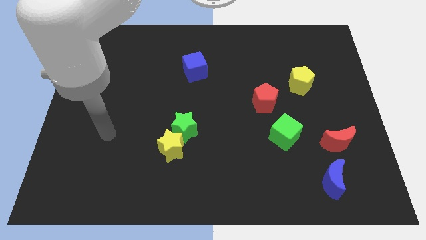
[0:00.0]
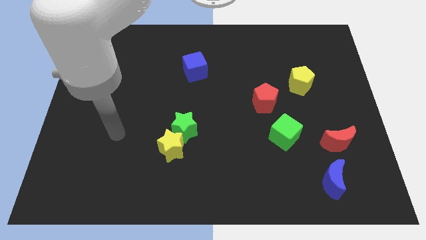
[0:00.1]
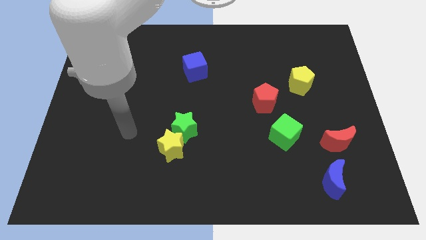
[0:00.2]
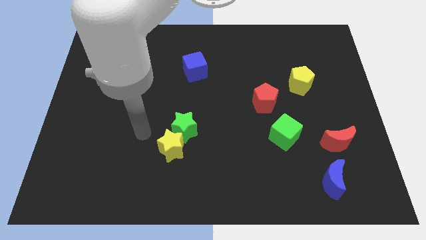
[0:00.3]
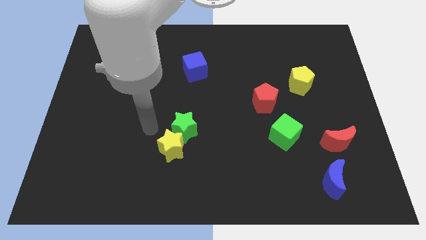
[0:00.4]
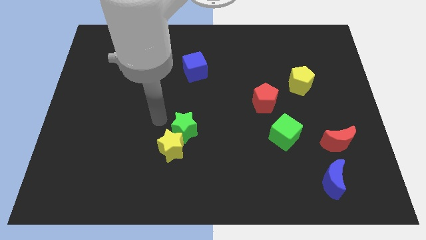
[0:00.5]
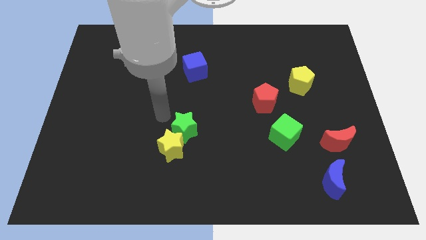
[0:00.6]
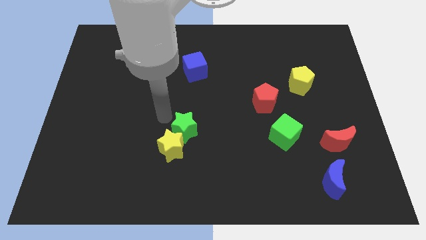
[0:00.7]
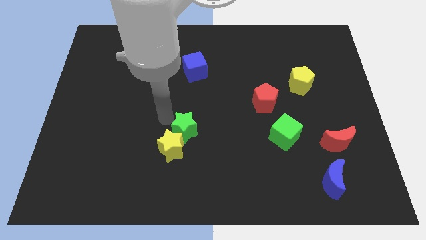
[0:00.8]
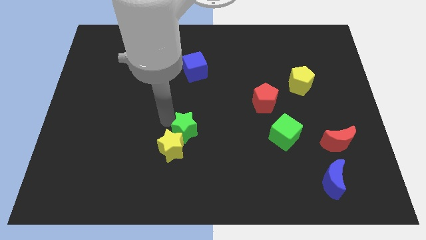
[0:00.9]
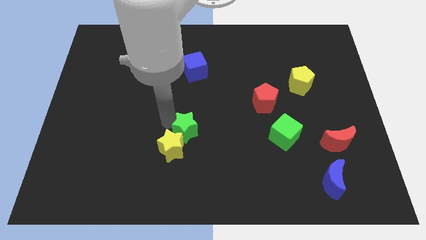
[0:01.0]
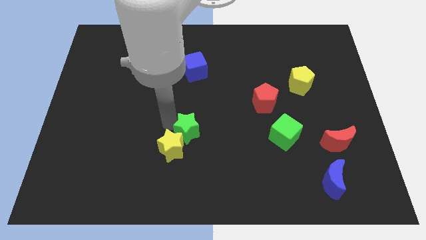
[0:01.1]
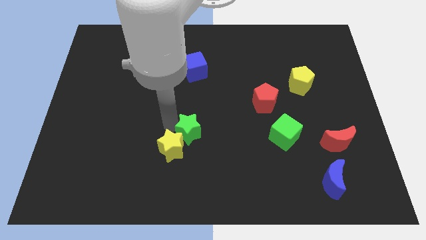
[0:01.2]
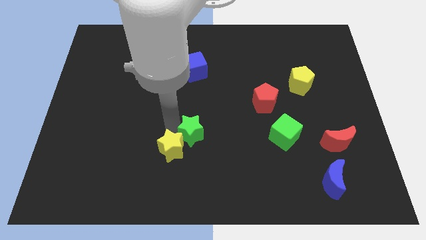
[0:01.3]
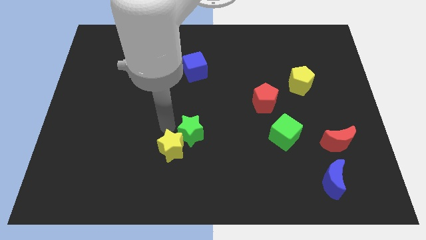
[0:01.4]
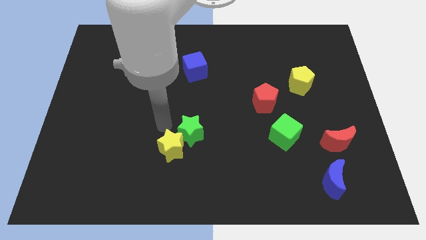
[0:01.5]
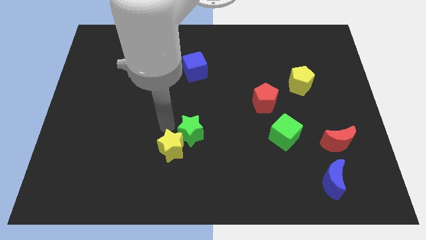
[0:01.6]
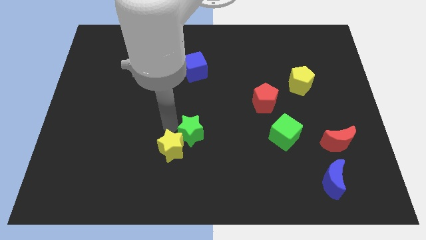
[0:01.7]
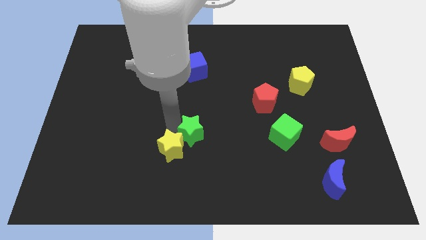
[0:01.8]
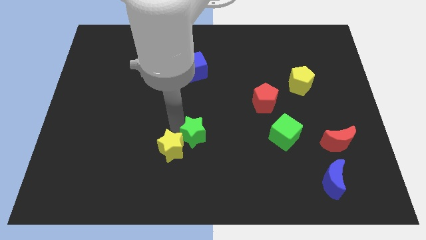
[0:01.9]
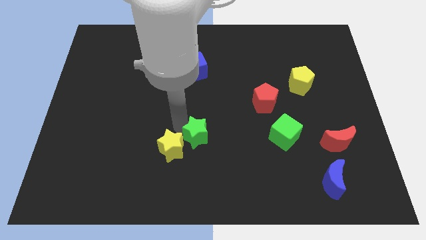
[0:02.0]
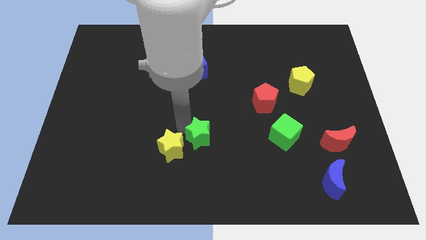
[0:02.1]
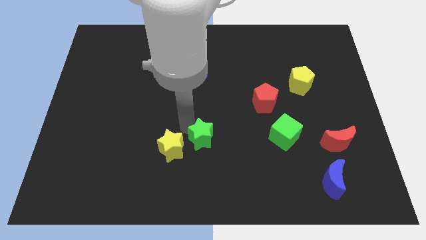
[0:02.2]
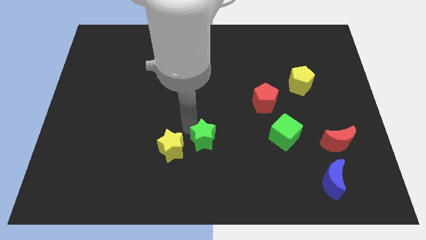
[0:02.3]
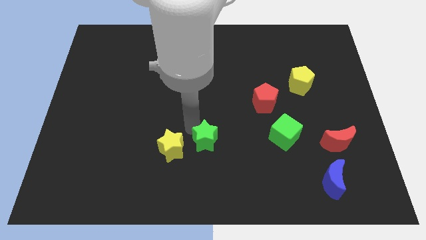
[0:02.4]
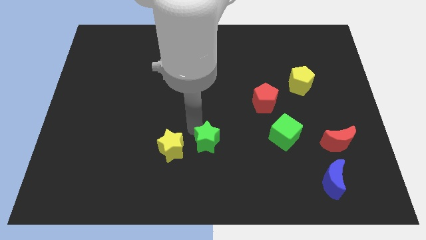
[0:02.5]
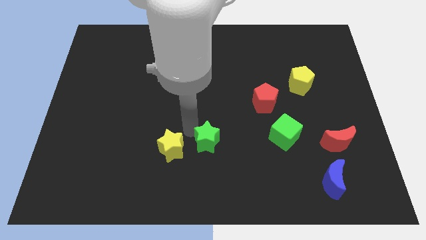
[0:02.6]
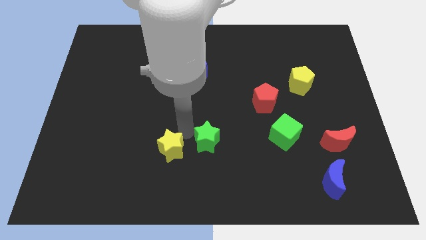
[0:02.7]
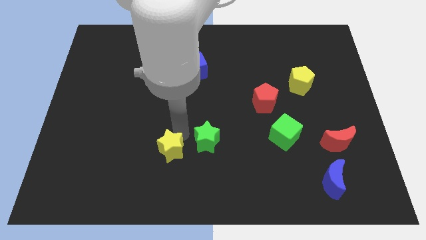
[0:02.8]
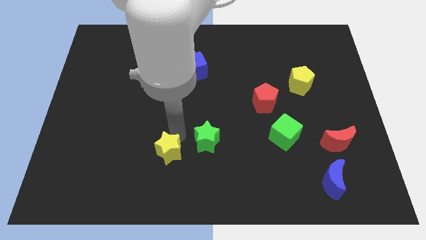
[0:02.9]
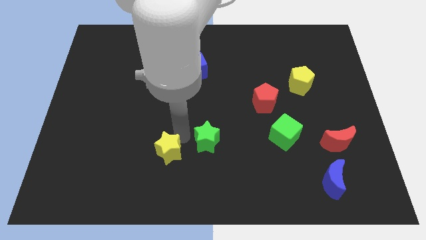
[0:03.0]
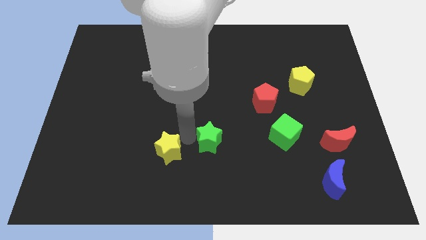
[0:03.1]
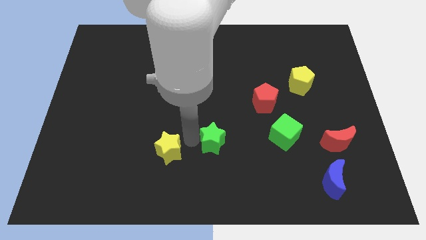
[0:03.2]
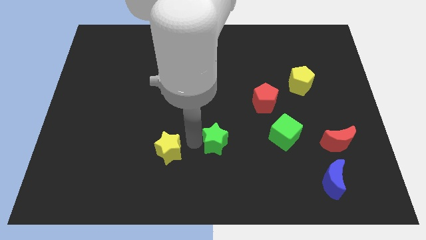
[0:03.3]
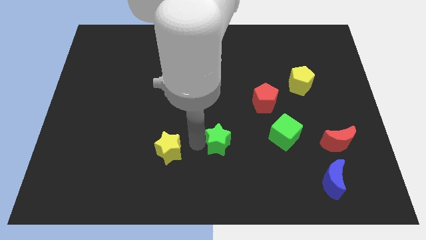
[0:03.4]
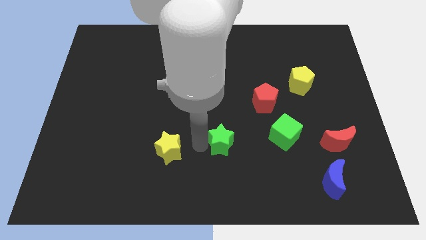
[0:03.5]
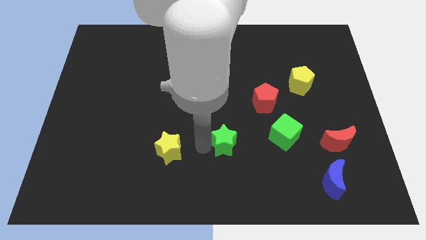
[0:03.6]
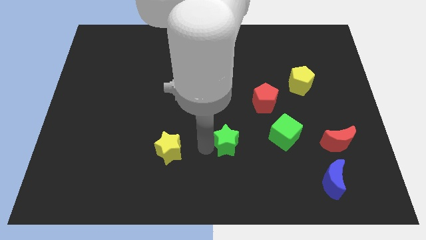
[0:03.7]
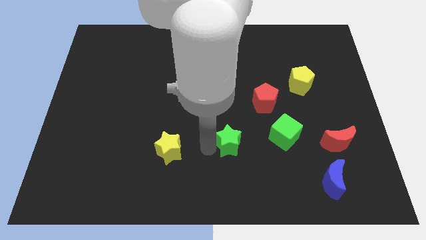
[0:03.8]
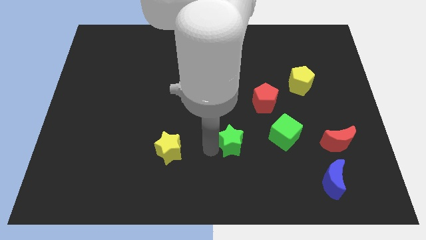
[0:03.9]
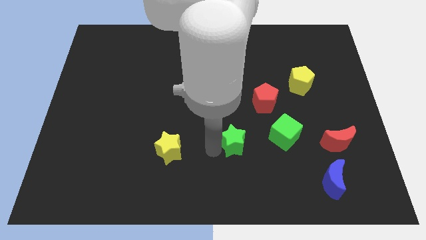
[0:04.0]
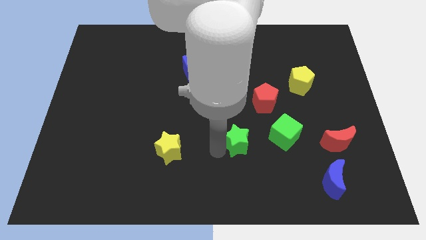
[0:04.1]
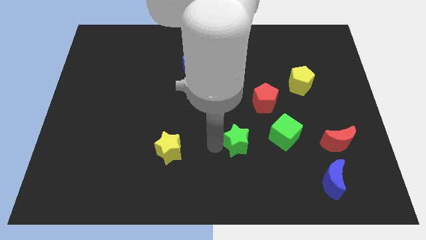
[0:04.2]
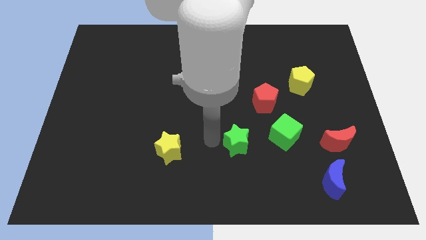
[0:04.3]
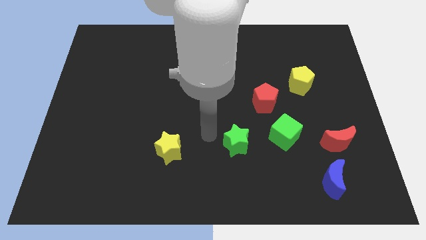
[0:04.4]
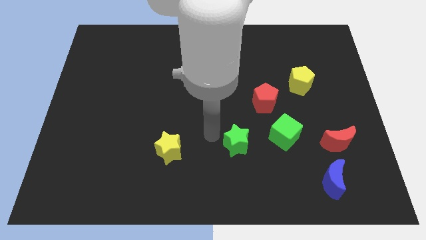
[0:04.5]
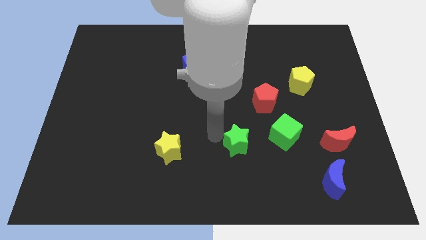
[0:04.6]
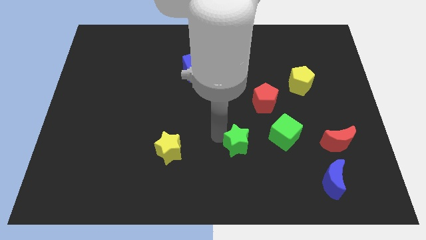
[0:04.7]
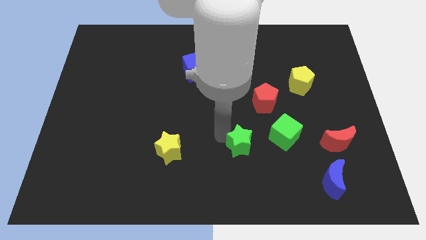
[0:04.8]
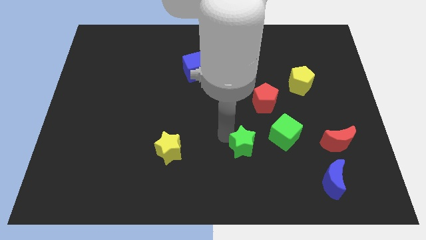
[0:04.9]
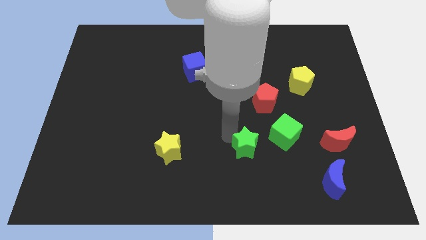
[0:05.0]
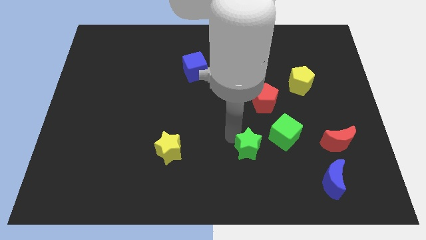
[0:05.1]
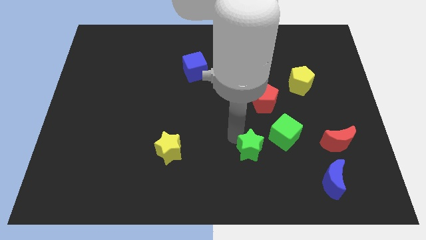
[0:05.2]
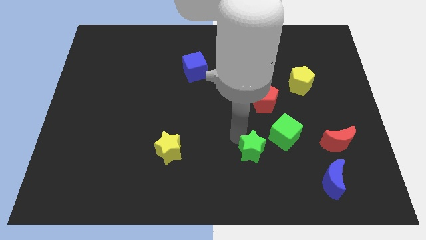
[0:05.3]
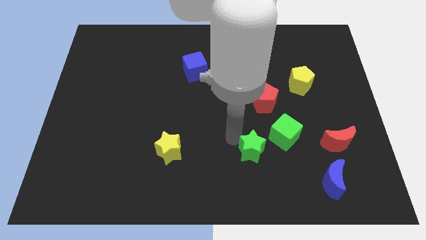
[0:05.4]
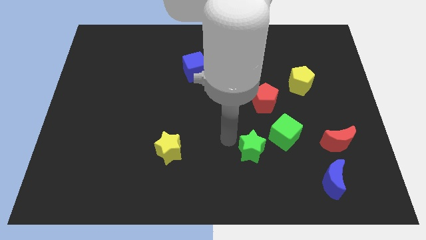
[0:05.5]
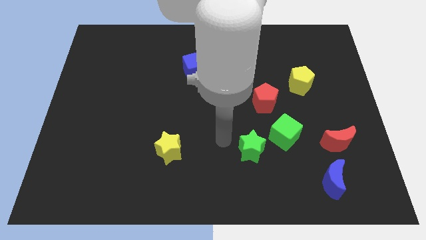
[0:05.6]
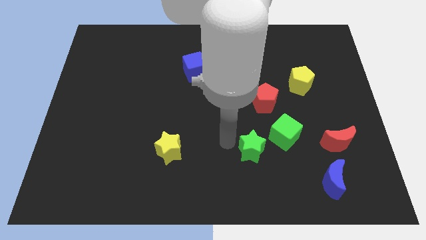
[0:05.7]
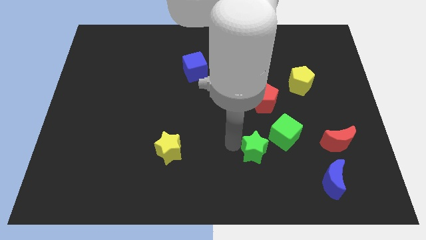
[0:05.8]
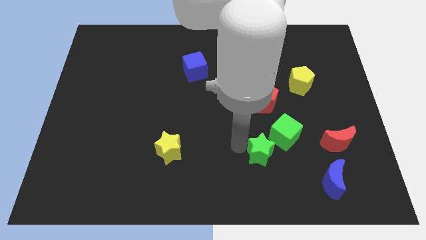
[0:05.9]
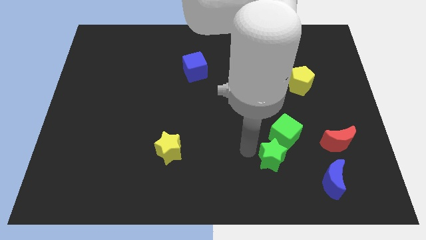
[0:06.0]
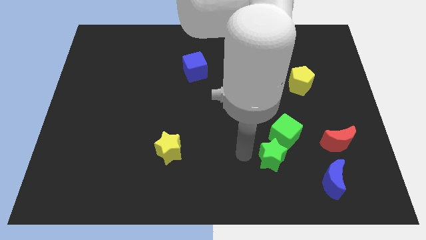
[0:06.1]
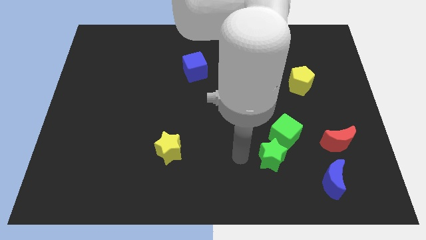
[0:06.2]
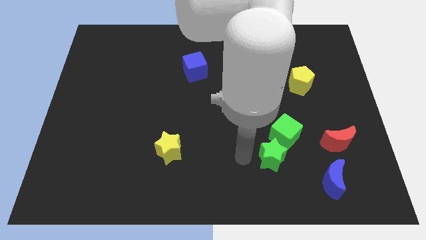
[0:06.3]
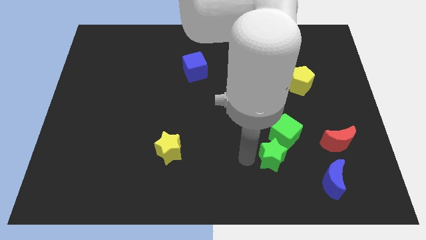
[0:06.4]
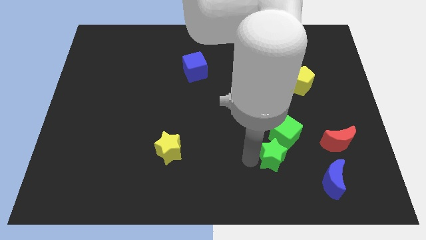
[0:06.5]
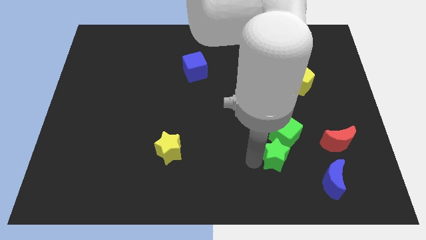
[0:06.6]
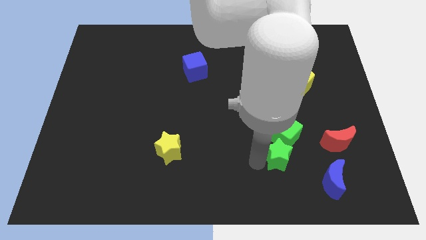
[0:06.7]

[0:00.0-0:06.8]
push the green star diagonally up and to the left of the blue moon
